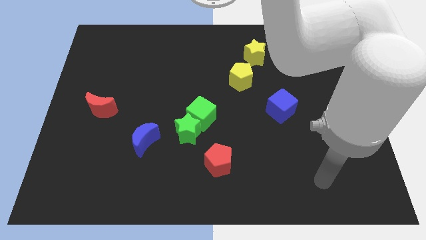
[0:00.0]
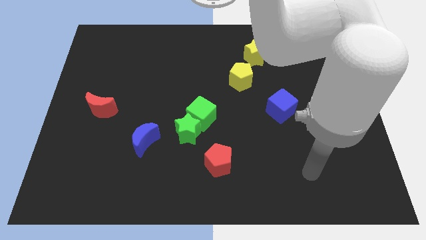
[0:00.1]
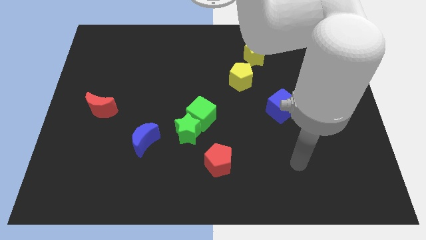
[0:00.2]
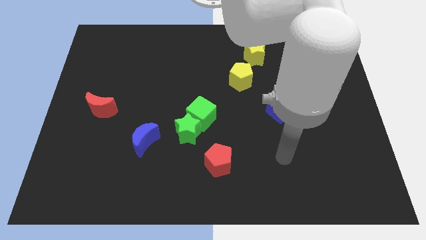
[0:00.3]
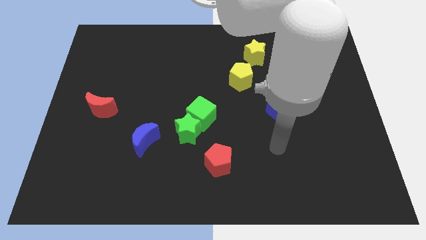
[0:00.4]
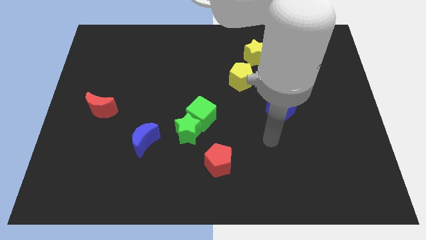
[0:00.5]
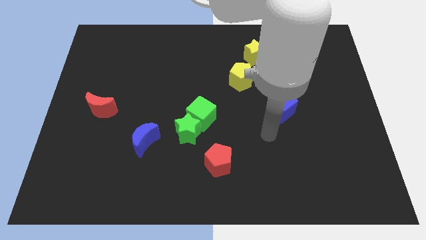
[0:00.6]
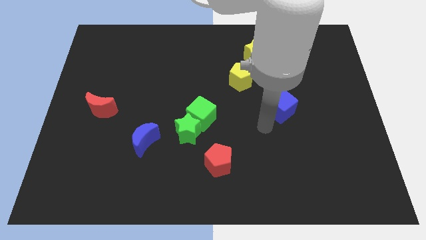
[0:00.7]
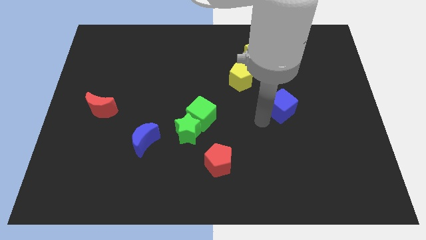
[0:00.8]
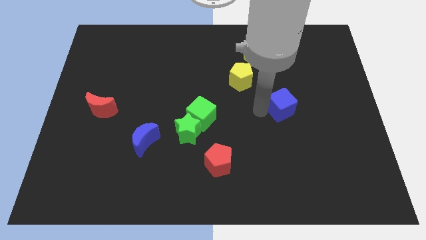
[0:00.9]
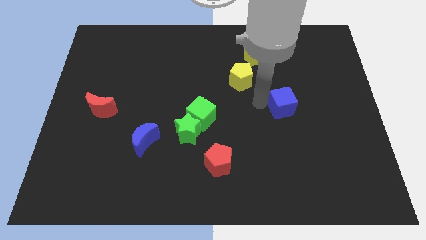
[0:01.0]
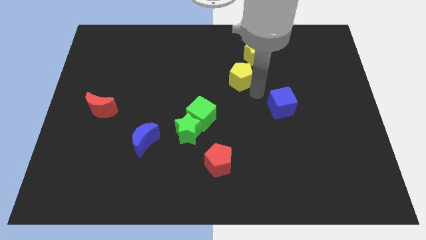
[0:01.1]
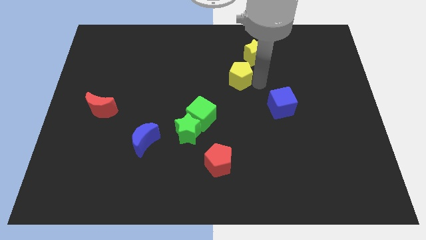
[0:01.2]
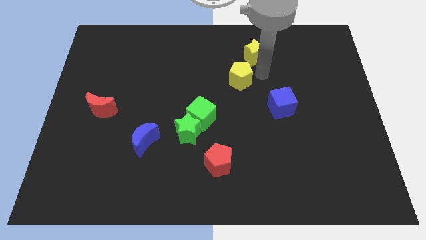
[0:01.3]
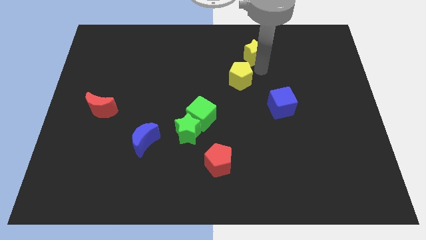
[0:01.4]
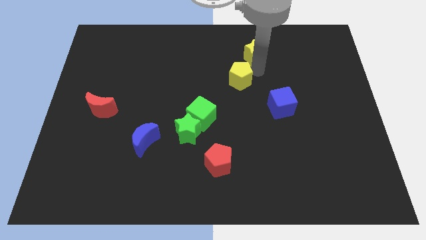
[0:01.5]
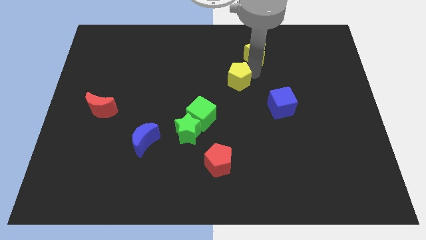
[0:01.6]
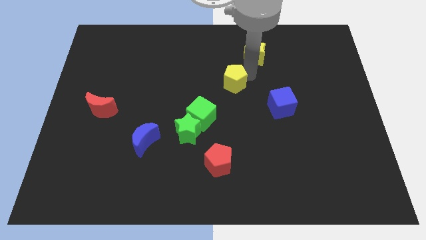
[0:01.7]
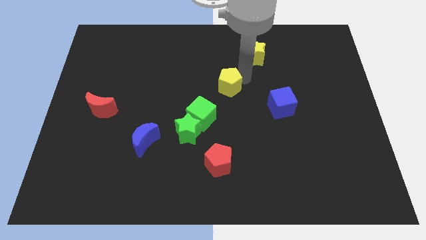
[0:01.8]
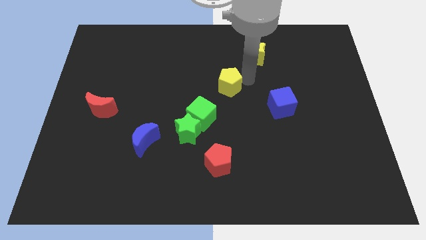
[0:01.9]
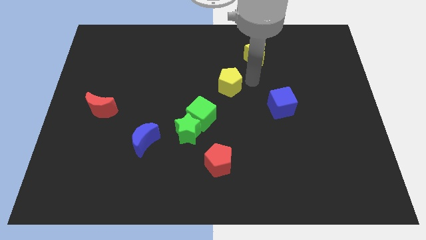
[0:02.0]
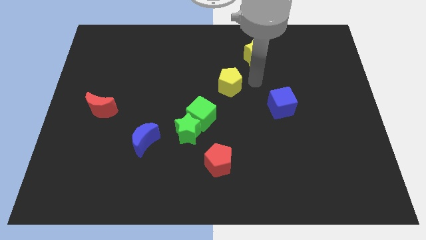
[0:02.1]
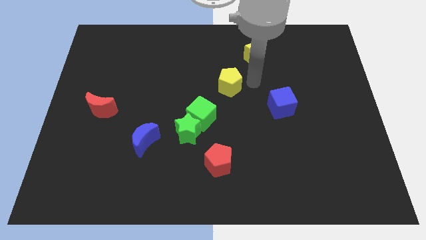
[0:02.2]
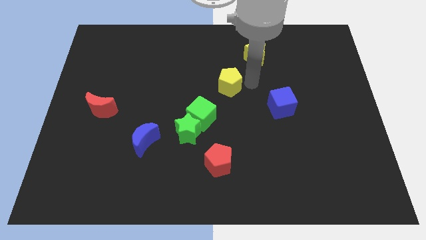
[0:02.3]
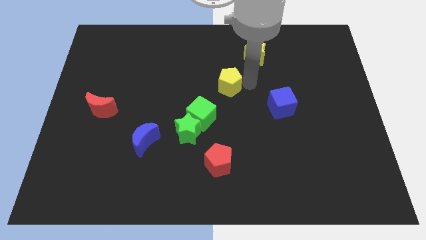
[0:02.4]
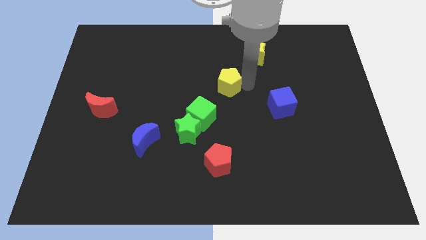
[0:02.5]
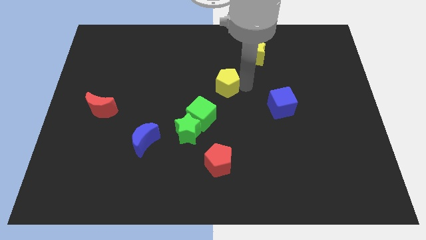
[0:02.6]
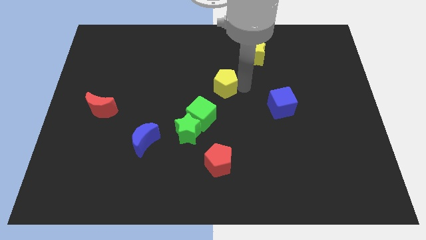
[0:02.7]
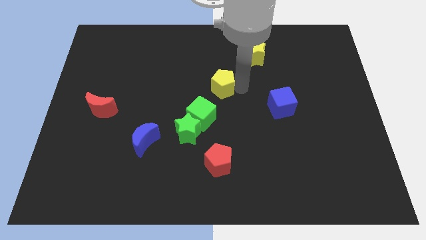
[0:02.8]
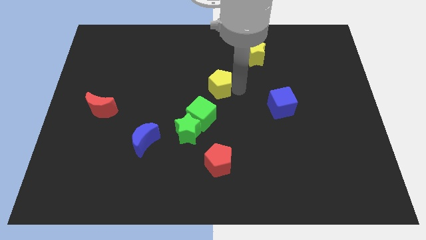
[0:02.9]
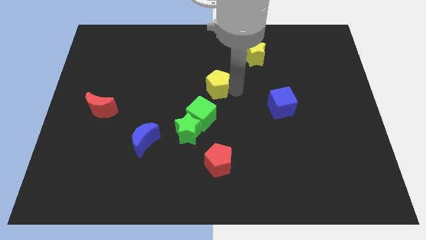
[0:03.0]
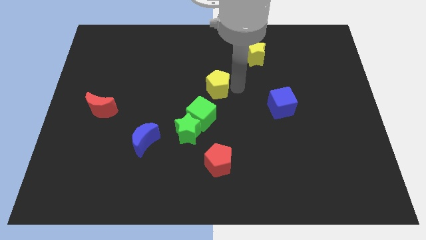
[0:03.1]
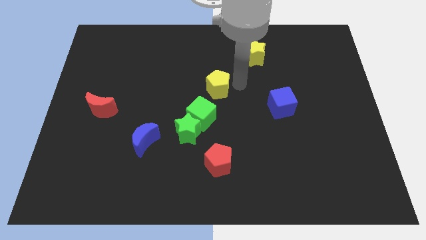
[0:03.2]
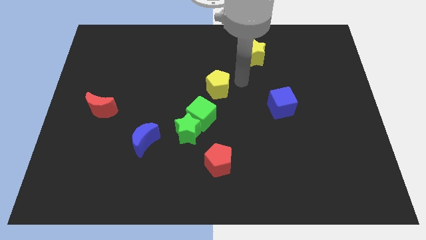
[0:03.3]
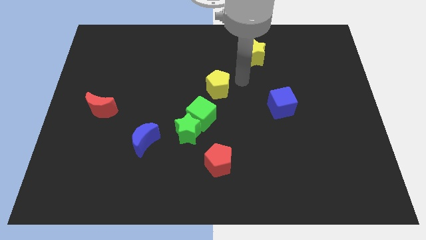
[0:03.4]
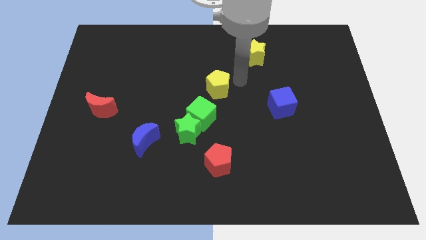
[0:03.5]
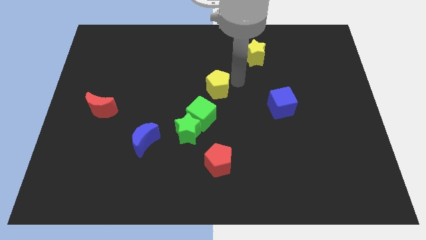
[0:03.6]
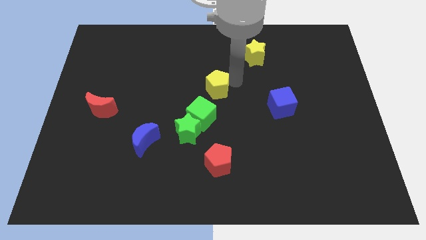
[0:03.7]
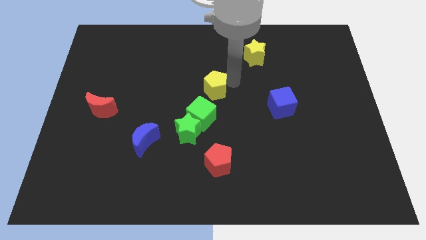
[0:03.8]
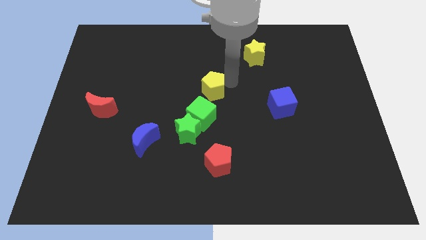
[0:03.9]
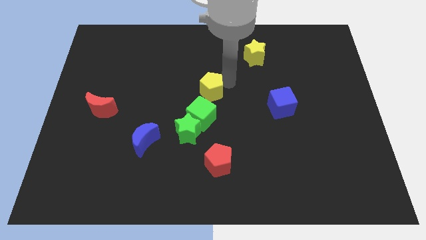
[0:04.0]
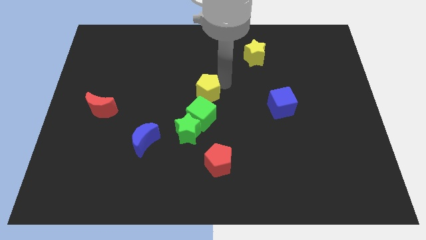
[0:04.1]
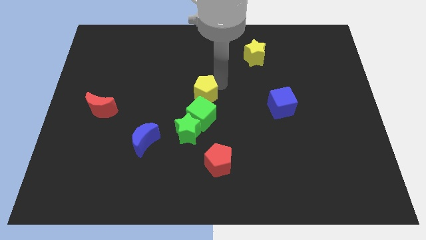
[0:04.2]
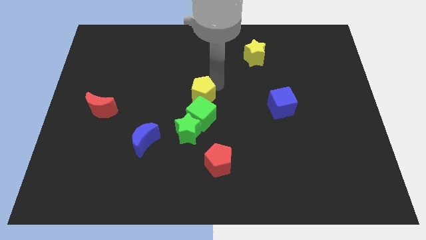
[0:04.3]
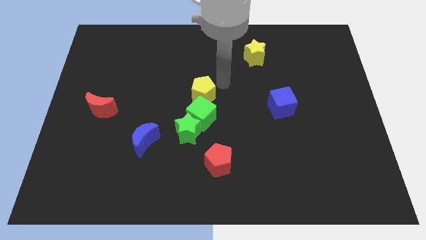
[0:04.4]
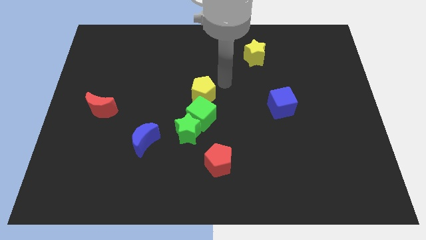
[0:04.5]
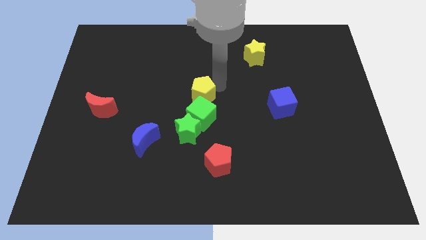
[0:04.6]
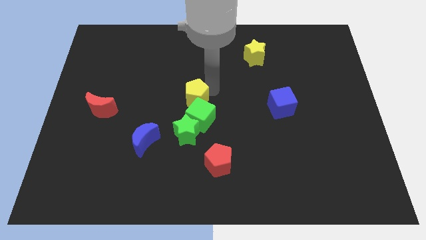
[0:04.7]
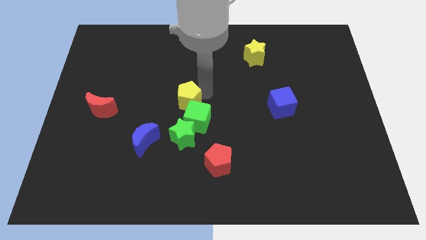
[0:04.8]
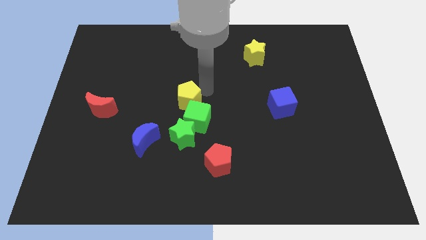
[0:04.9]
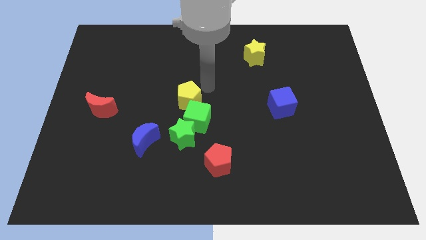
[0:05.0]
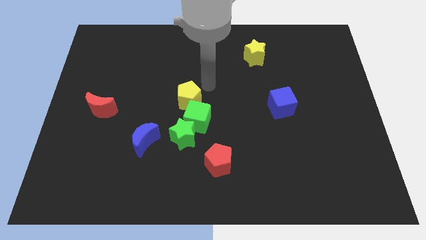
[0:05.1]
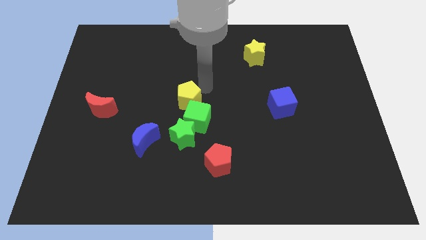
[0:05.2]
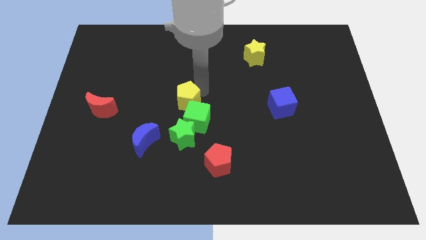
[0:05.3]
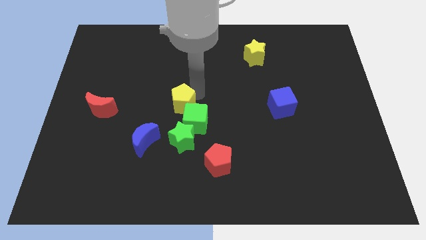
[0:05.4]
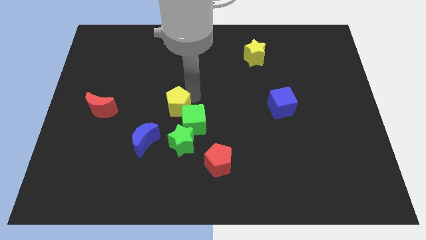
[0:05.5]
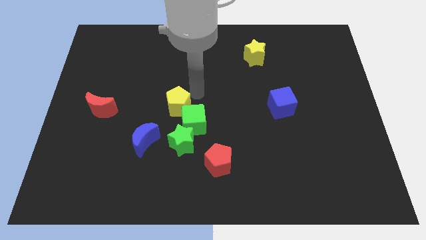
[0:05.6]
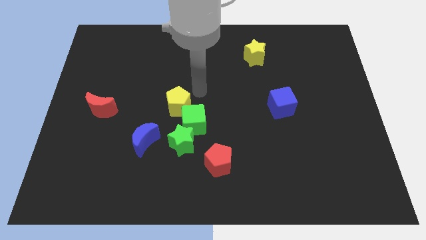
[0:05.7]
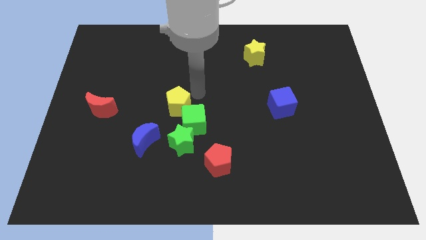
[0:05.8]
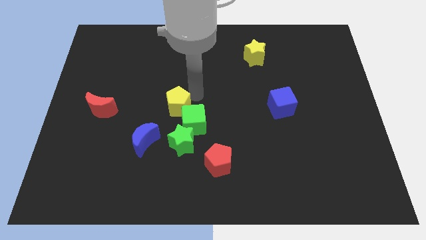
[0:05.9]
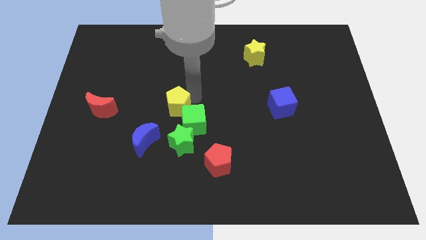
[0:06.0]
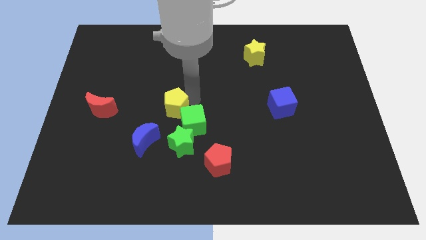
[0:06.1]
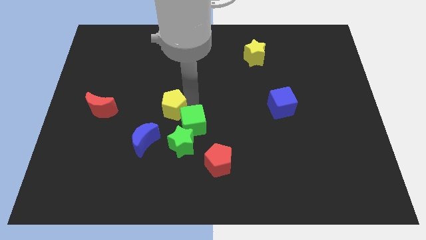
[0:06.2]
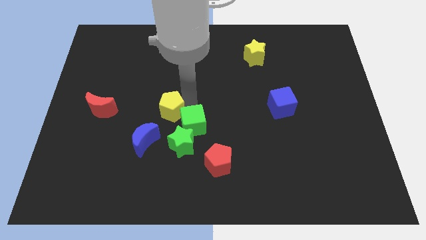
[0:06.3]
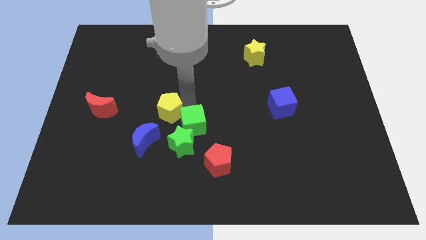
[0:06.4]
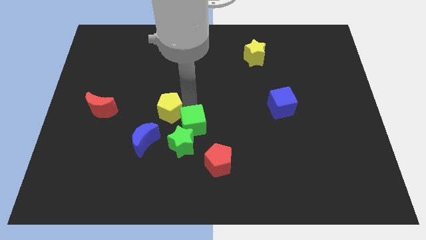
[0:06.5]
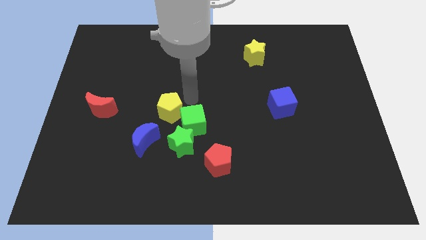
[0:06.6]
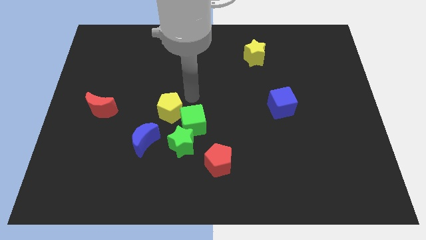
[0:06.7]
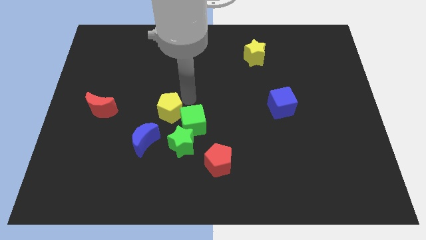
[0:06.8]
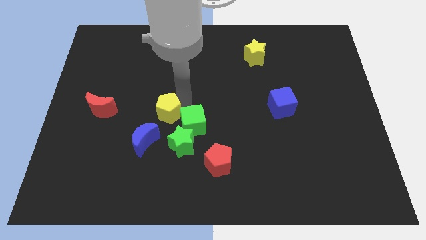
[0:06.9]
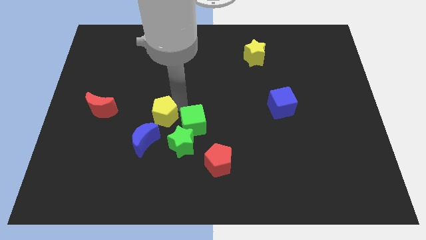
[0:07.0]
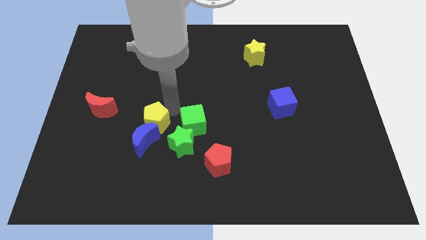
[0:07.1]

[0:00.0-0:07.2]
push the yellow pentagon towards the blue moon

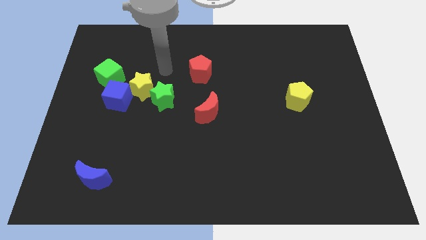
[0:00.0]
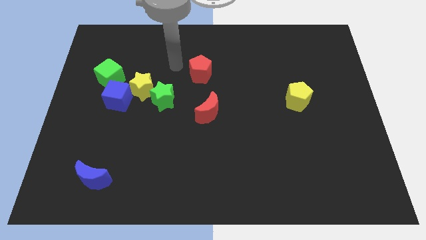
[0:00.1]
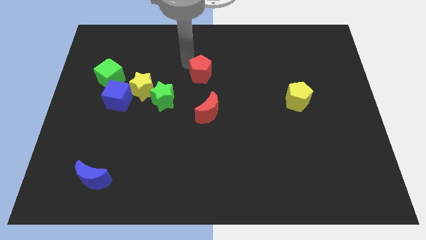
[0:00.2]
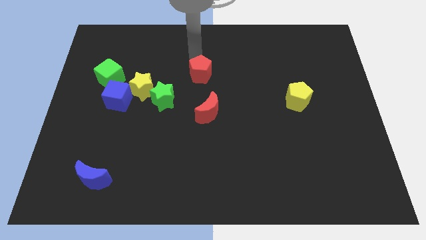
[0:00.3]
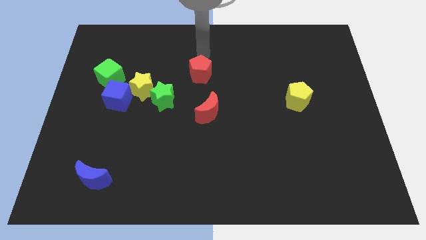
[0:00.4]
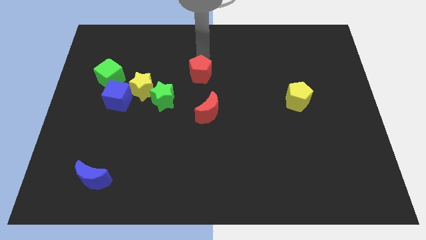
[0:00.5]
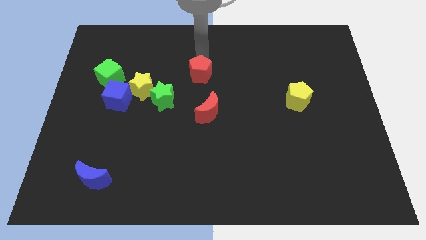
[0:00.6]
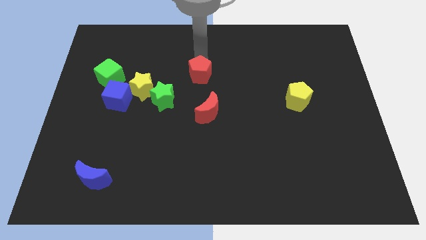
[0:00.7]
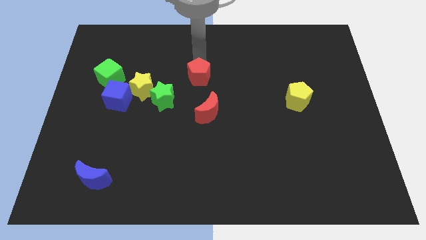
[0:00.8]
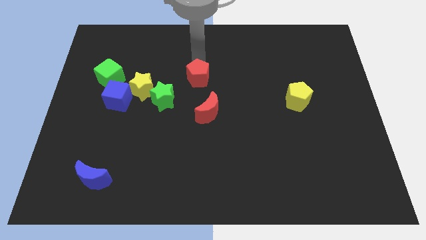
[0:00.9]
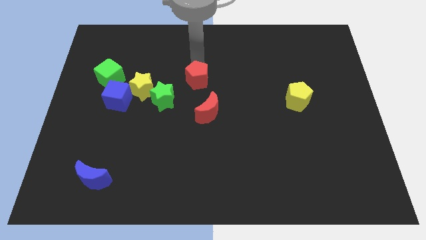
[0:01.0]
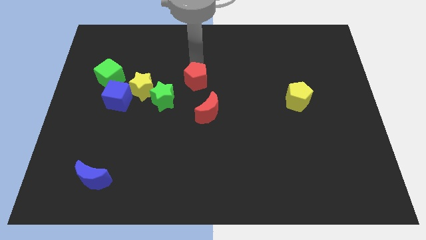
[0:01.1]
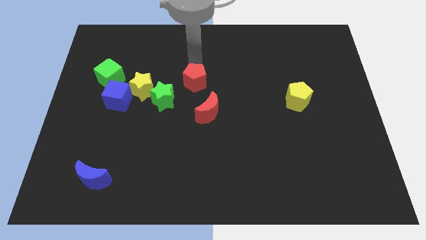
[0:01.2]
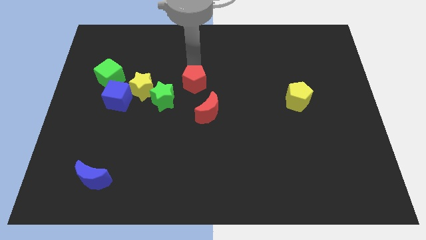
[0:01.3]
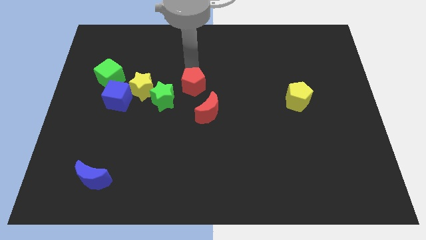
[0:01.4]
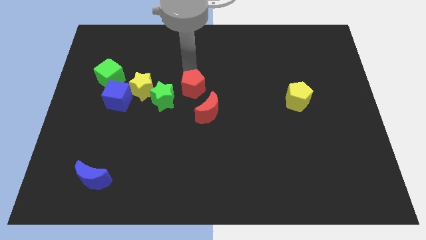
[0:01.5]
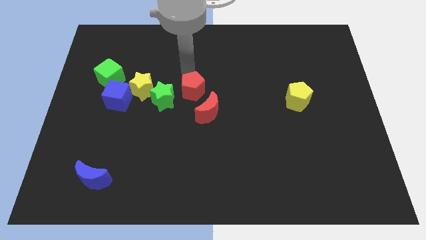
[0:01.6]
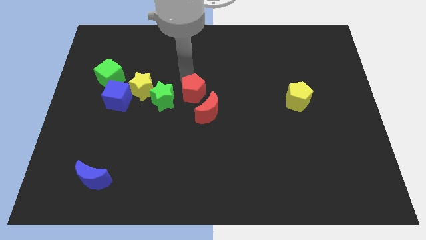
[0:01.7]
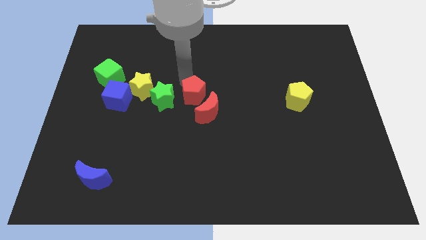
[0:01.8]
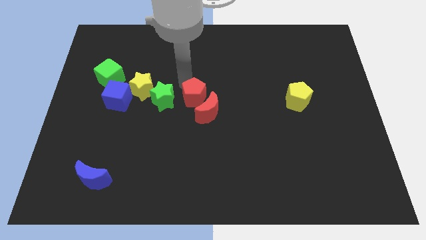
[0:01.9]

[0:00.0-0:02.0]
put the red pentagon towards the red moon
